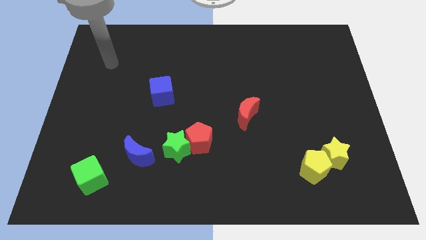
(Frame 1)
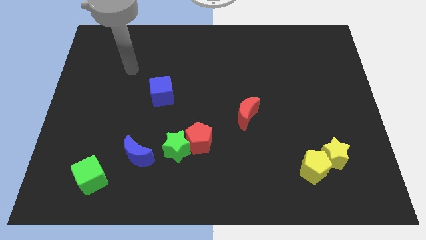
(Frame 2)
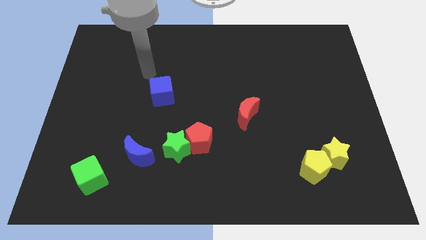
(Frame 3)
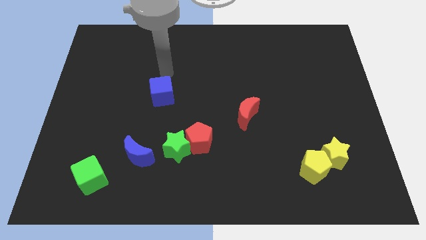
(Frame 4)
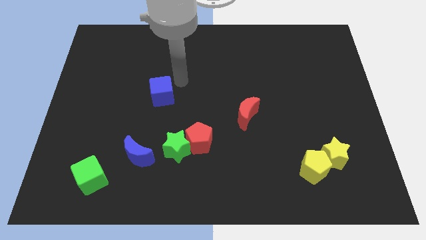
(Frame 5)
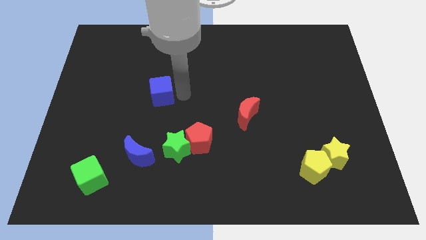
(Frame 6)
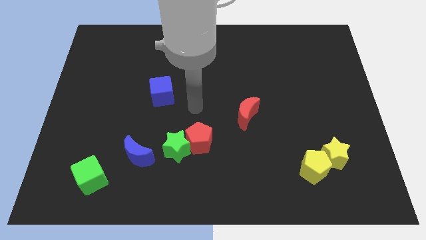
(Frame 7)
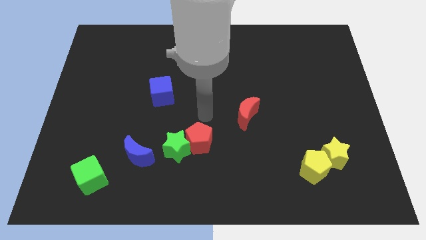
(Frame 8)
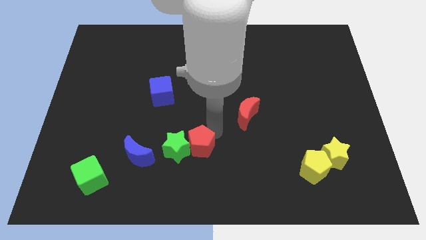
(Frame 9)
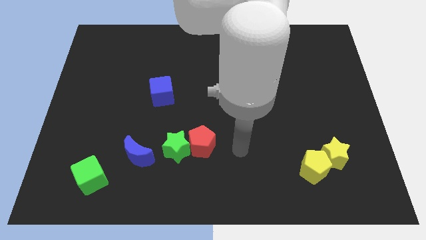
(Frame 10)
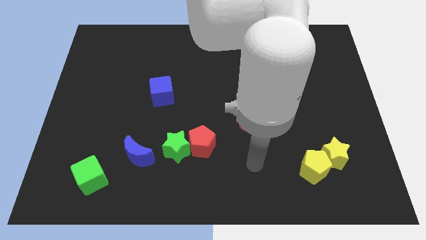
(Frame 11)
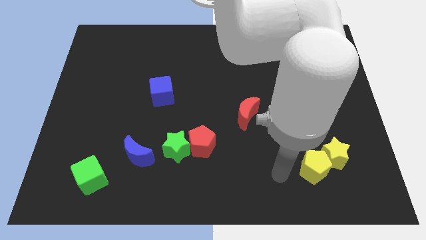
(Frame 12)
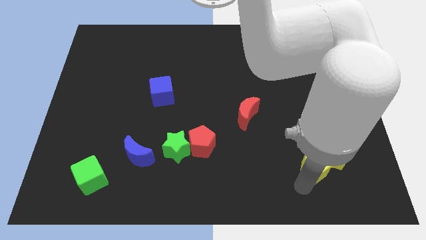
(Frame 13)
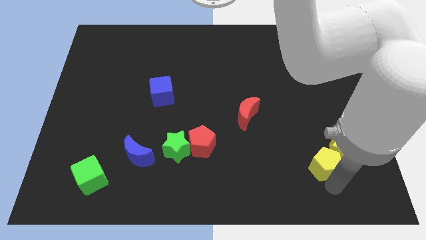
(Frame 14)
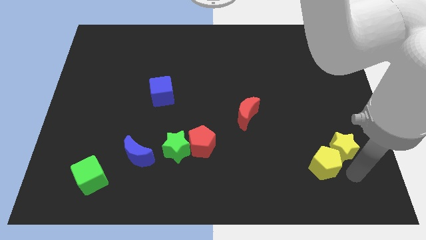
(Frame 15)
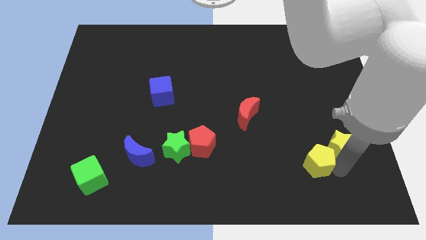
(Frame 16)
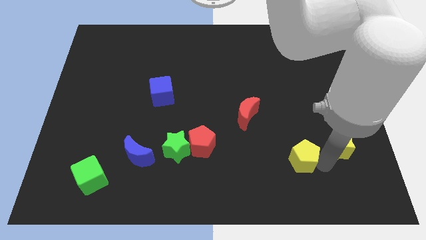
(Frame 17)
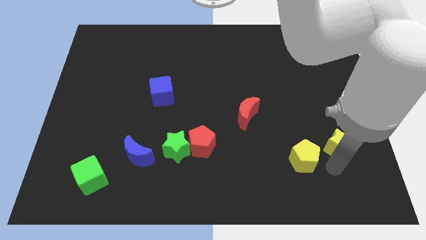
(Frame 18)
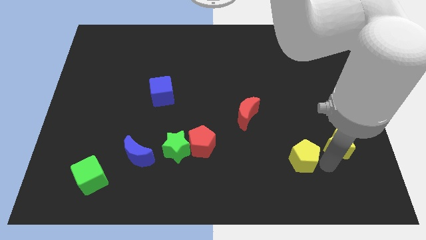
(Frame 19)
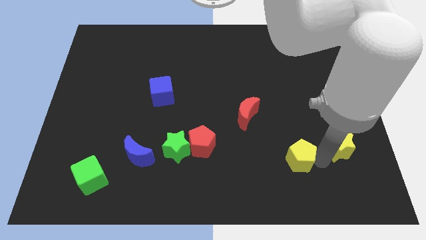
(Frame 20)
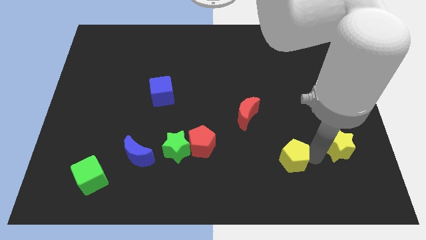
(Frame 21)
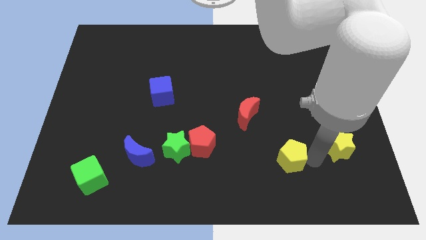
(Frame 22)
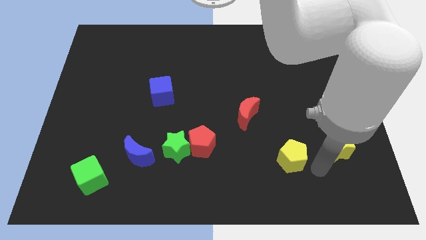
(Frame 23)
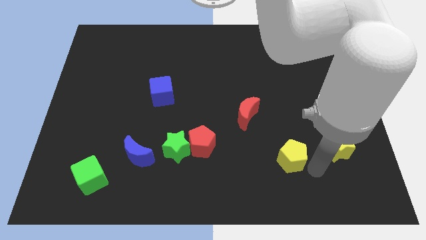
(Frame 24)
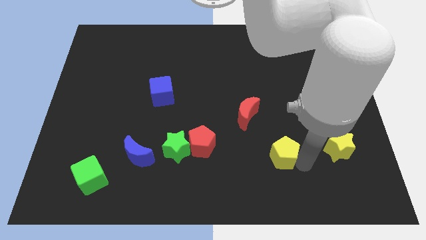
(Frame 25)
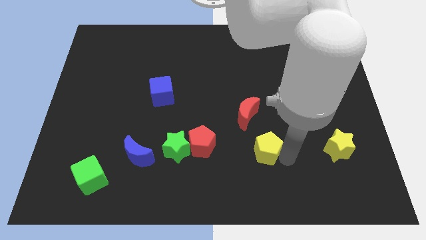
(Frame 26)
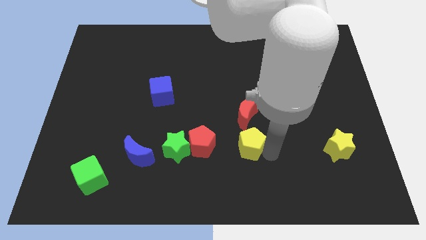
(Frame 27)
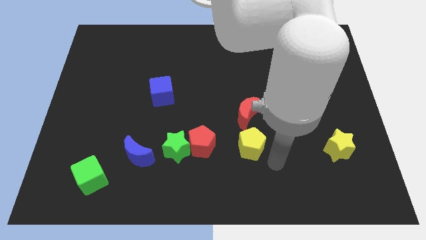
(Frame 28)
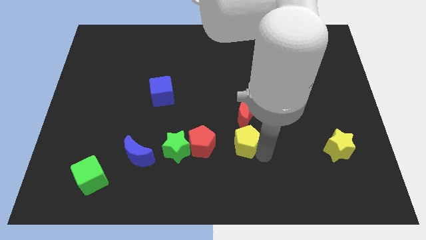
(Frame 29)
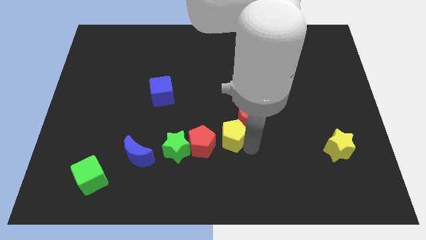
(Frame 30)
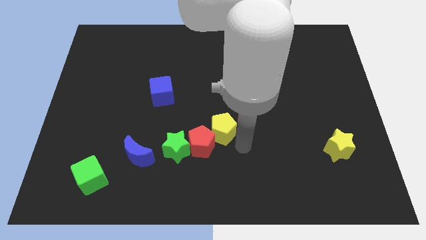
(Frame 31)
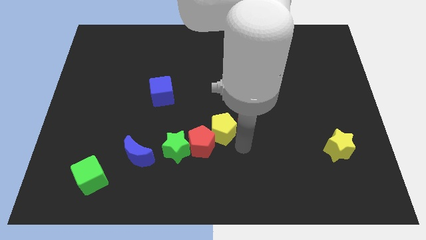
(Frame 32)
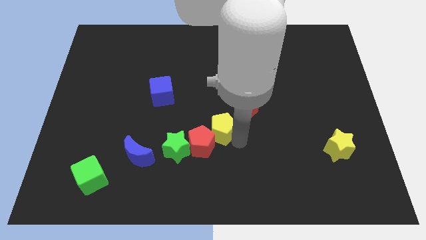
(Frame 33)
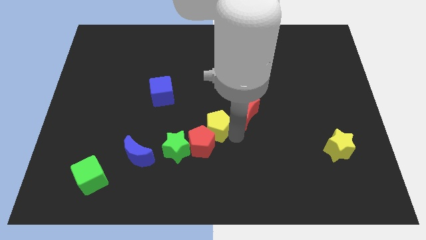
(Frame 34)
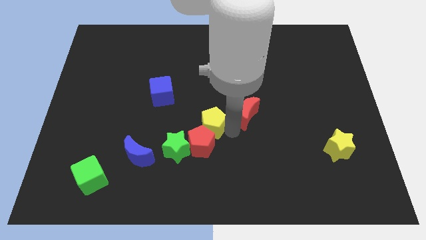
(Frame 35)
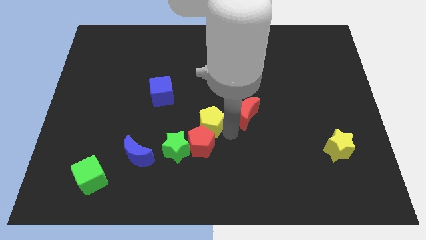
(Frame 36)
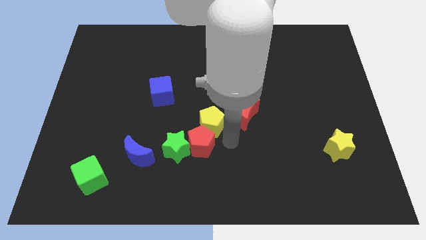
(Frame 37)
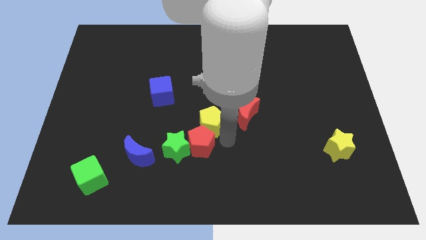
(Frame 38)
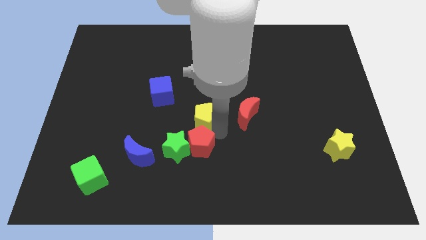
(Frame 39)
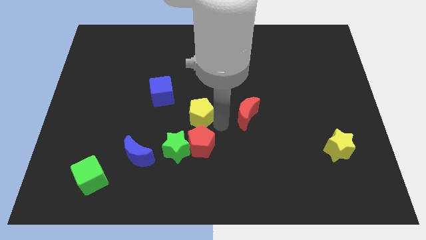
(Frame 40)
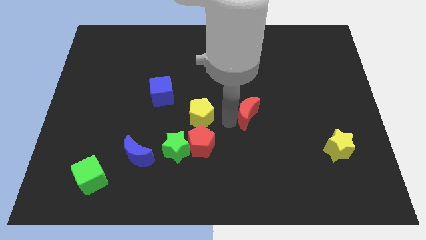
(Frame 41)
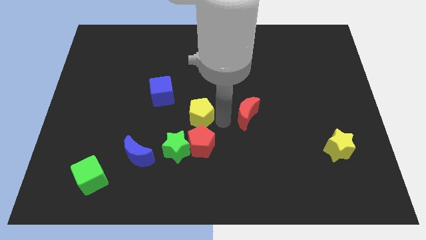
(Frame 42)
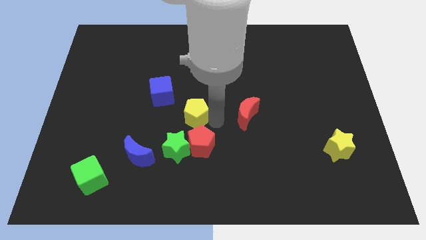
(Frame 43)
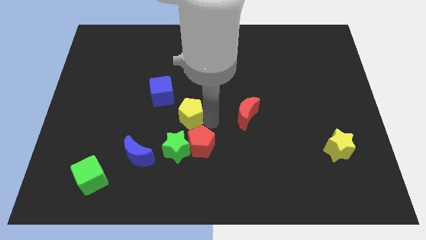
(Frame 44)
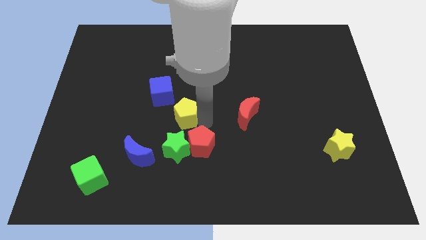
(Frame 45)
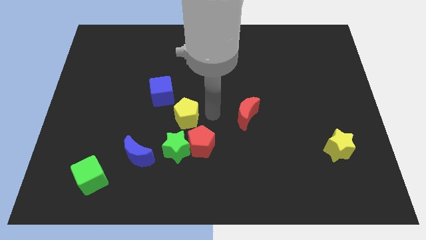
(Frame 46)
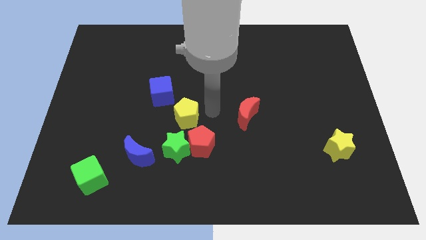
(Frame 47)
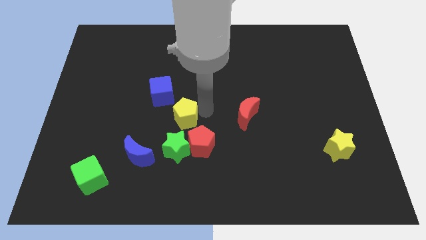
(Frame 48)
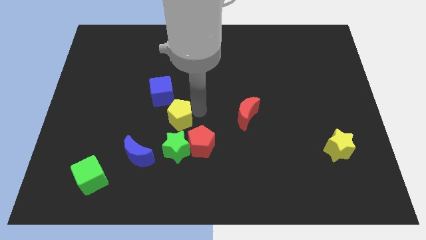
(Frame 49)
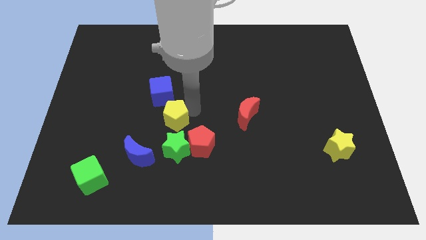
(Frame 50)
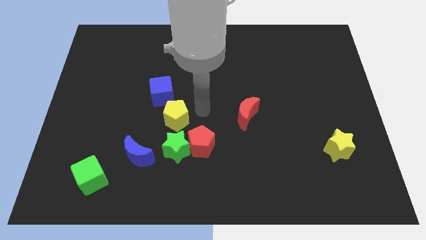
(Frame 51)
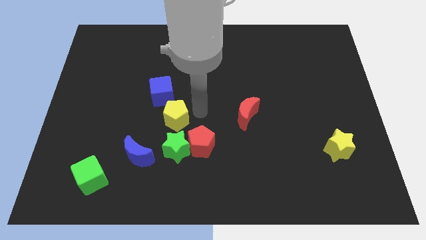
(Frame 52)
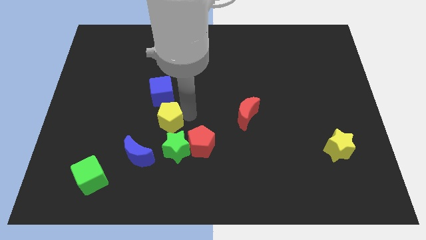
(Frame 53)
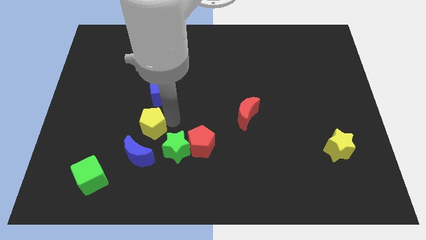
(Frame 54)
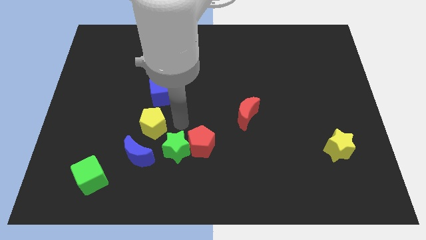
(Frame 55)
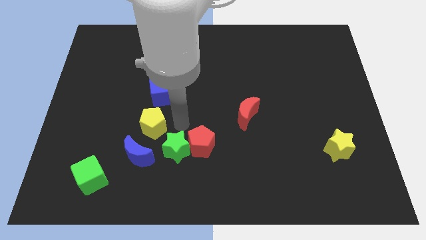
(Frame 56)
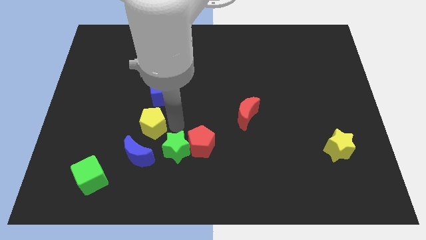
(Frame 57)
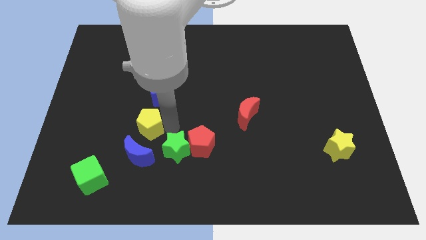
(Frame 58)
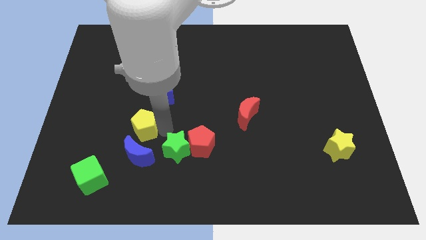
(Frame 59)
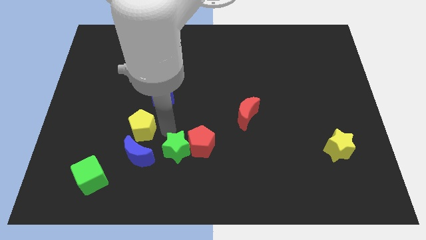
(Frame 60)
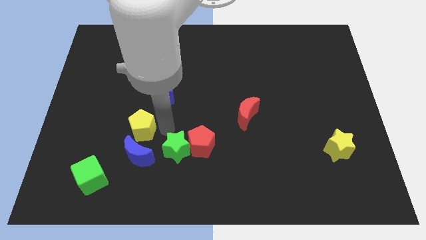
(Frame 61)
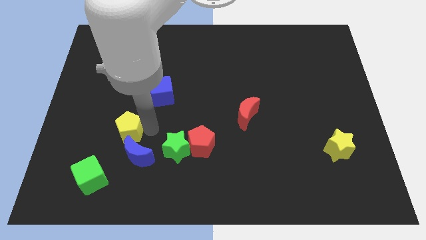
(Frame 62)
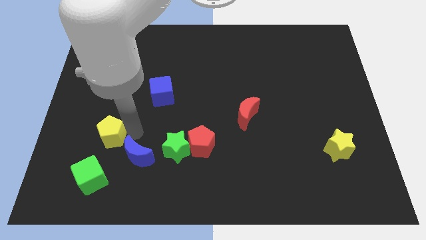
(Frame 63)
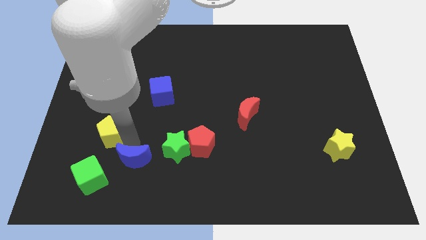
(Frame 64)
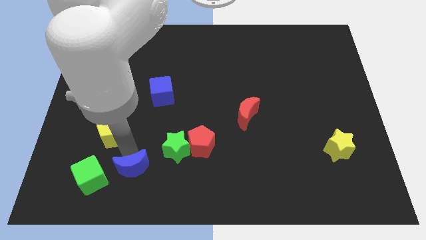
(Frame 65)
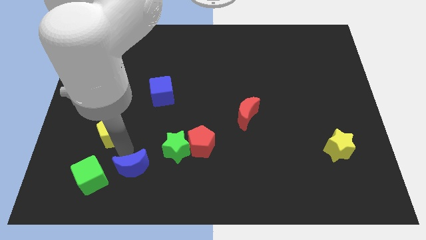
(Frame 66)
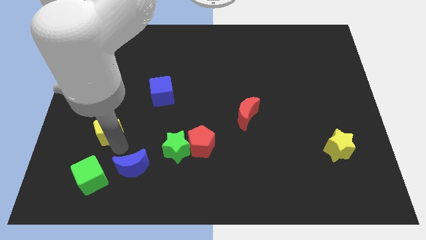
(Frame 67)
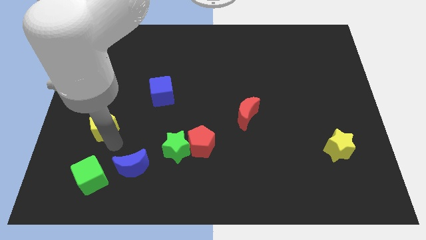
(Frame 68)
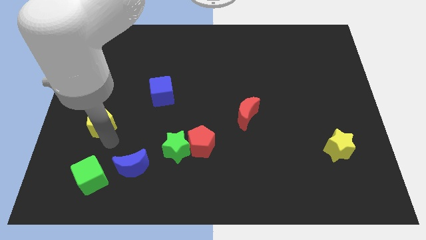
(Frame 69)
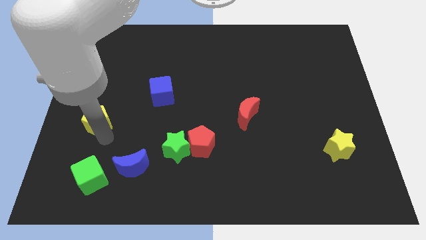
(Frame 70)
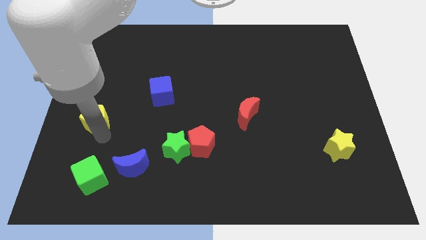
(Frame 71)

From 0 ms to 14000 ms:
push the yellow pentagon to the left side of the board
